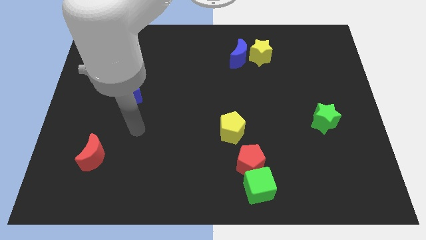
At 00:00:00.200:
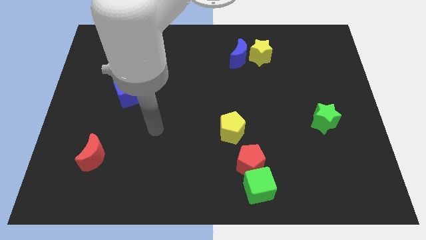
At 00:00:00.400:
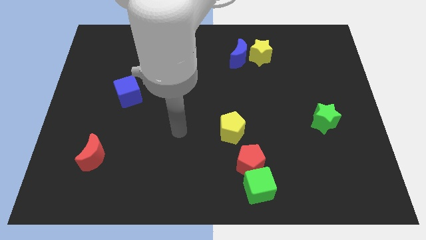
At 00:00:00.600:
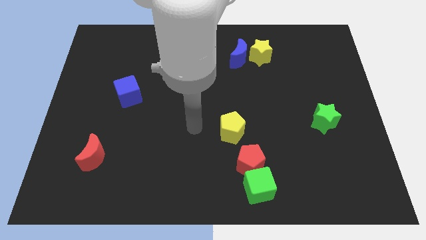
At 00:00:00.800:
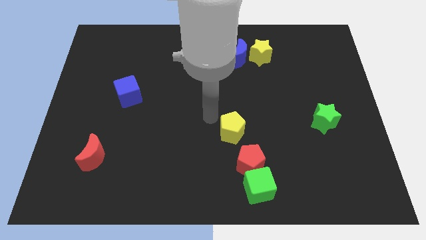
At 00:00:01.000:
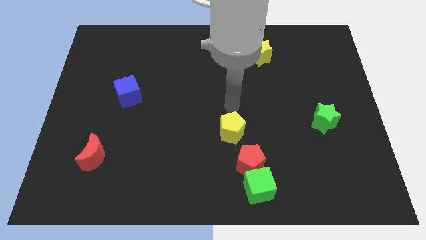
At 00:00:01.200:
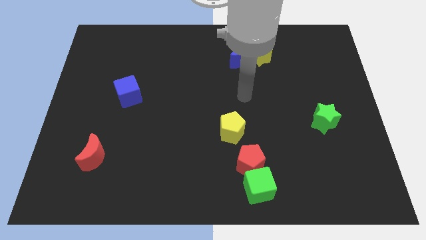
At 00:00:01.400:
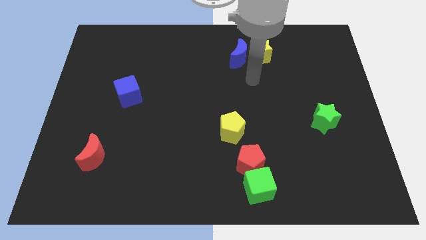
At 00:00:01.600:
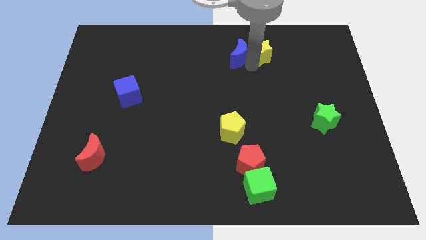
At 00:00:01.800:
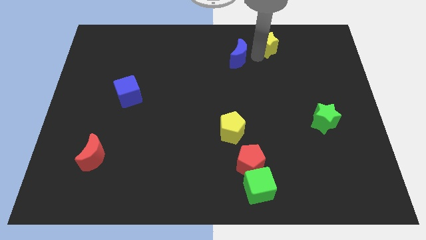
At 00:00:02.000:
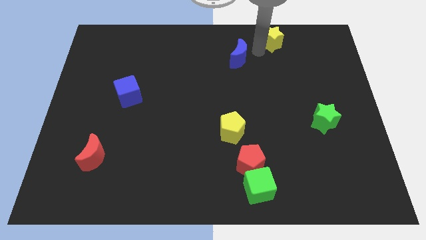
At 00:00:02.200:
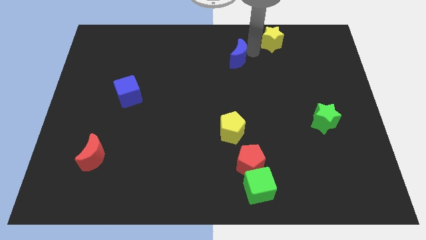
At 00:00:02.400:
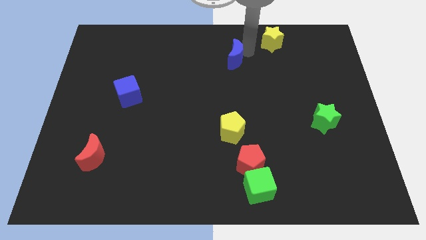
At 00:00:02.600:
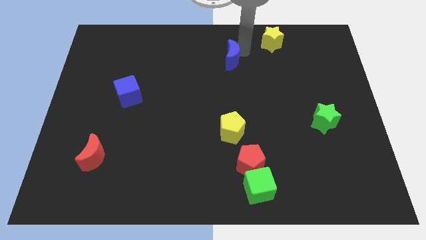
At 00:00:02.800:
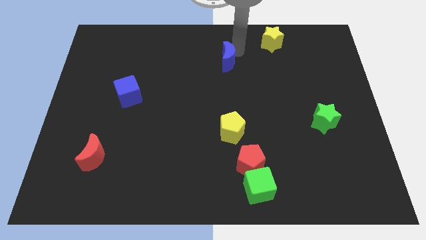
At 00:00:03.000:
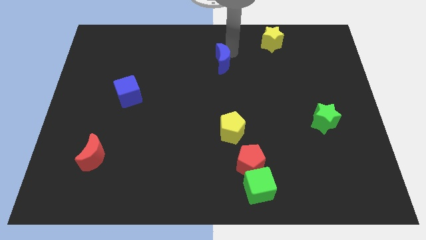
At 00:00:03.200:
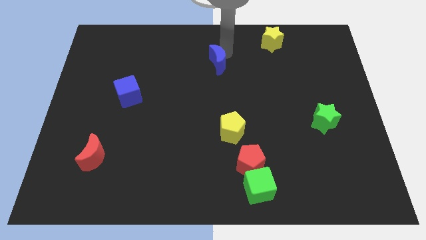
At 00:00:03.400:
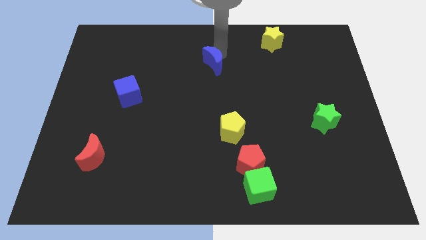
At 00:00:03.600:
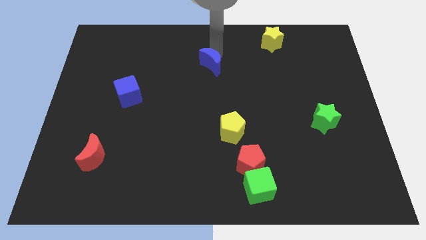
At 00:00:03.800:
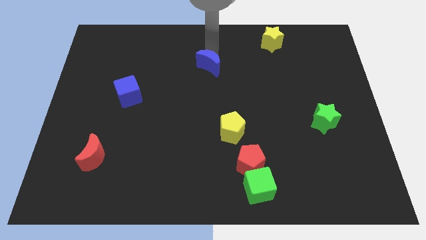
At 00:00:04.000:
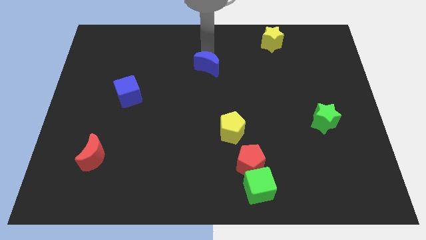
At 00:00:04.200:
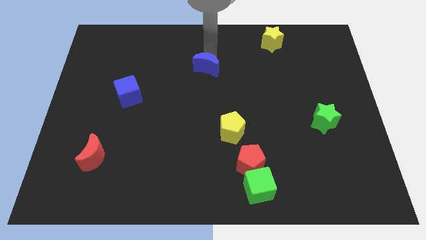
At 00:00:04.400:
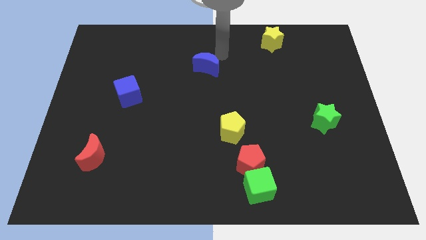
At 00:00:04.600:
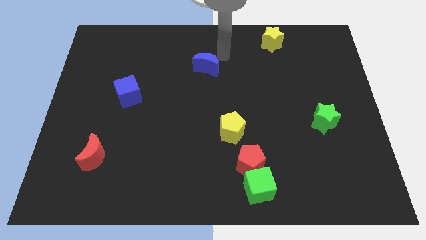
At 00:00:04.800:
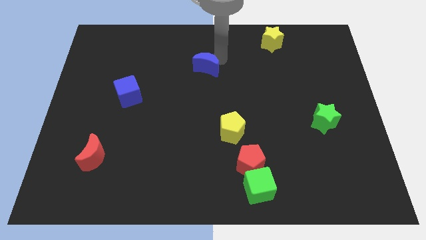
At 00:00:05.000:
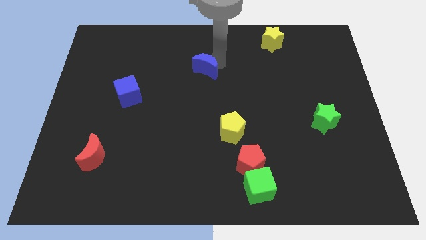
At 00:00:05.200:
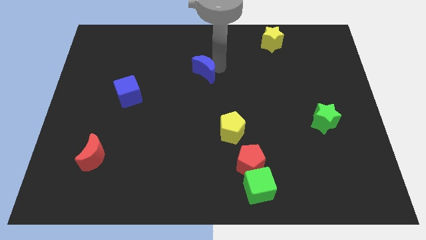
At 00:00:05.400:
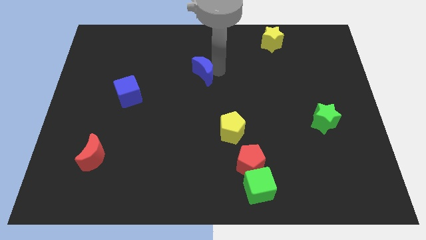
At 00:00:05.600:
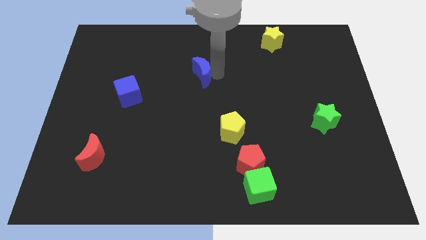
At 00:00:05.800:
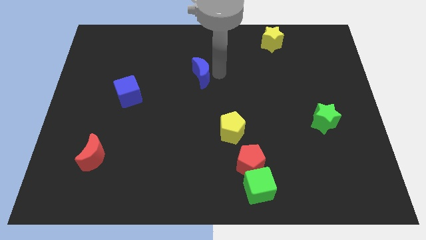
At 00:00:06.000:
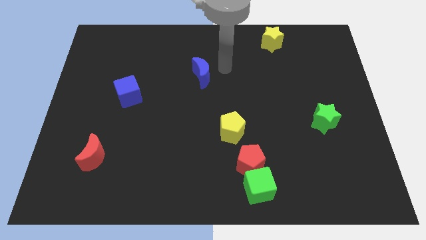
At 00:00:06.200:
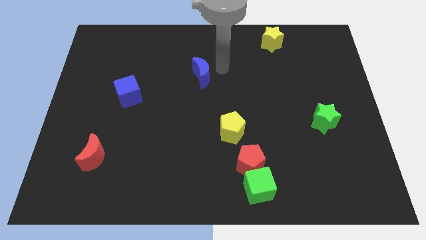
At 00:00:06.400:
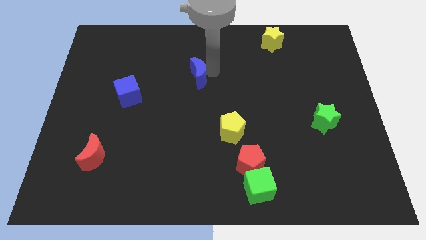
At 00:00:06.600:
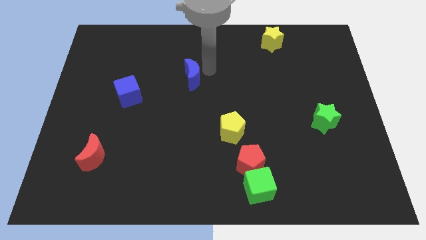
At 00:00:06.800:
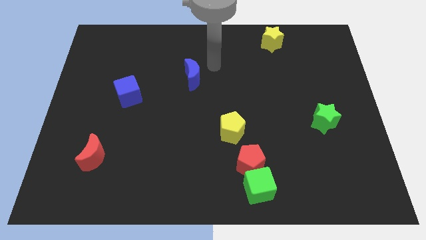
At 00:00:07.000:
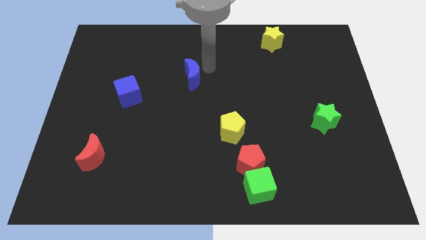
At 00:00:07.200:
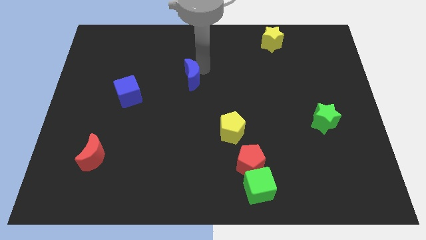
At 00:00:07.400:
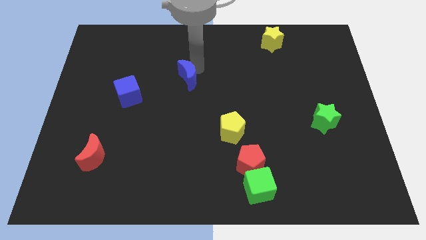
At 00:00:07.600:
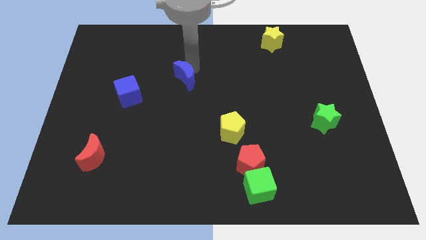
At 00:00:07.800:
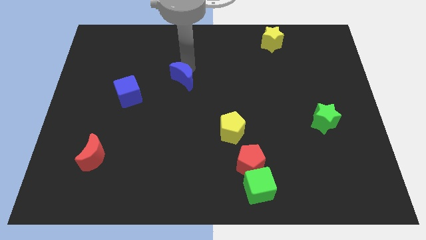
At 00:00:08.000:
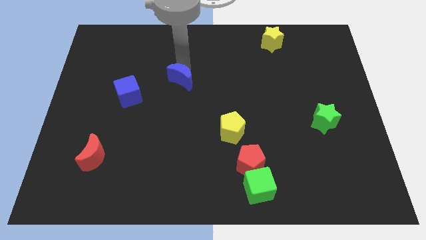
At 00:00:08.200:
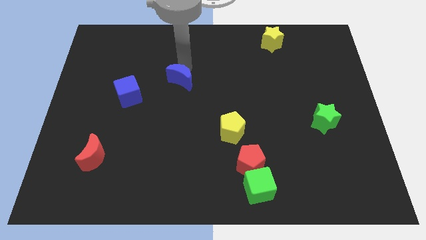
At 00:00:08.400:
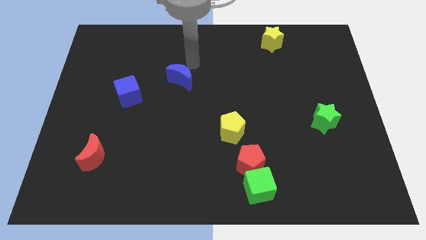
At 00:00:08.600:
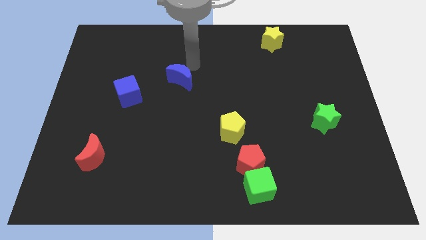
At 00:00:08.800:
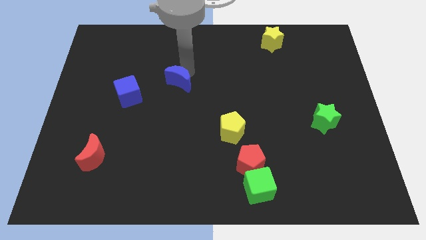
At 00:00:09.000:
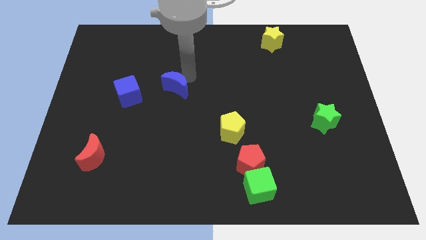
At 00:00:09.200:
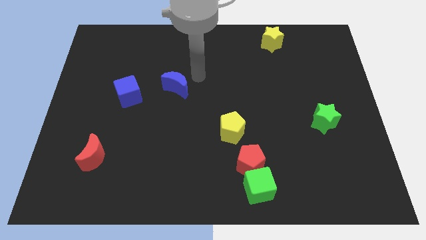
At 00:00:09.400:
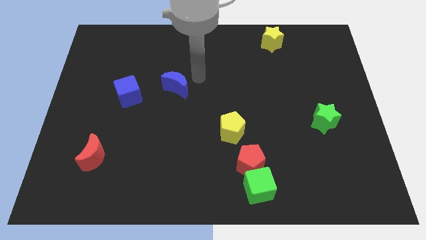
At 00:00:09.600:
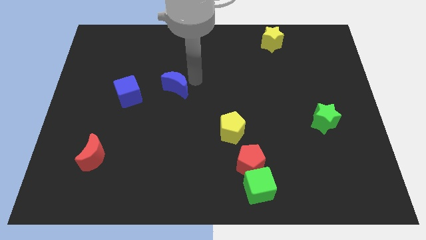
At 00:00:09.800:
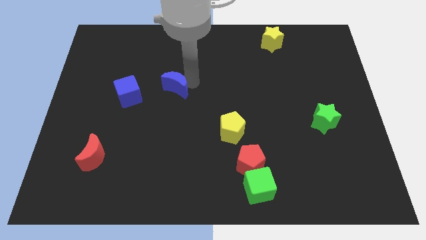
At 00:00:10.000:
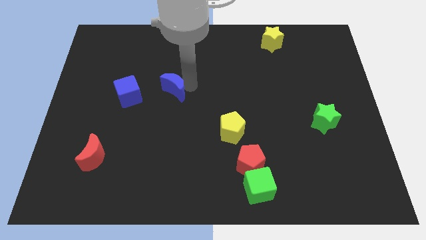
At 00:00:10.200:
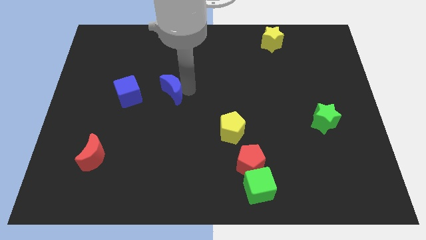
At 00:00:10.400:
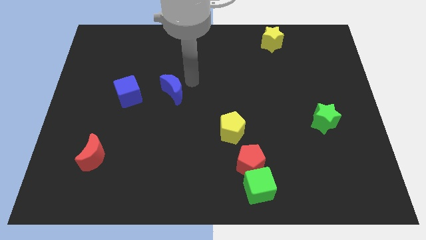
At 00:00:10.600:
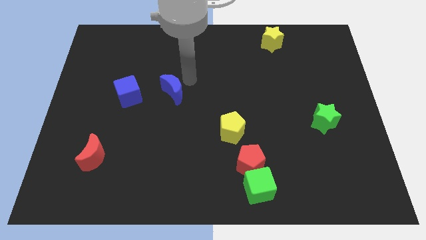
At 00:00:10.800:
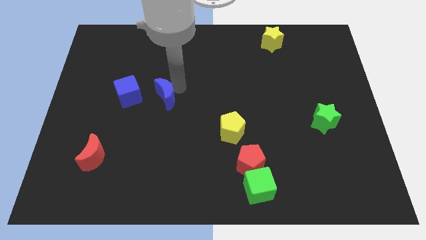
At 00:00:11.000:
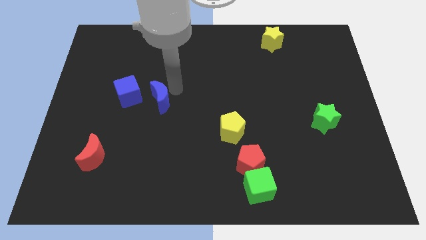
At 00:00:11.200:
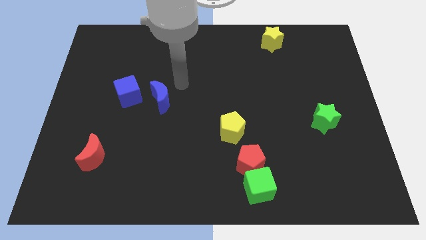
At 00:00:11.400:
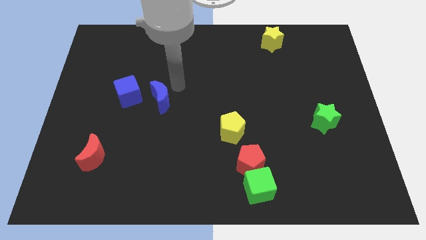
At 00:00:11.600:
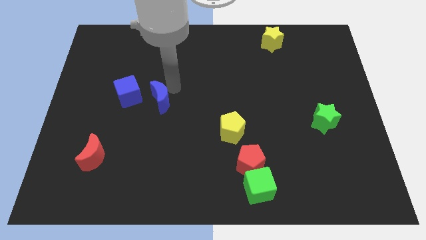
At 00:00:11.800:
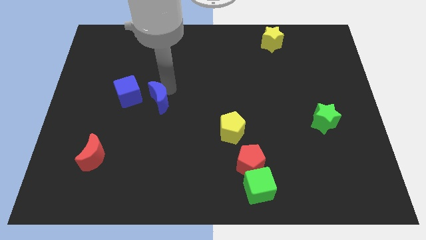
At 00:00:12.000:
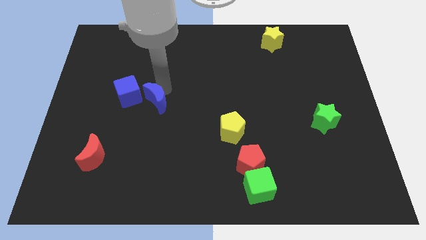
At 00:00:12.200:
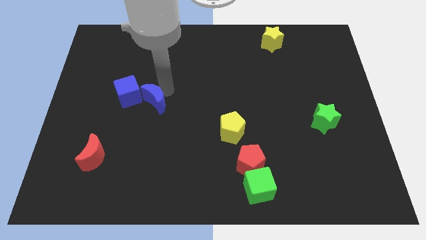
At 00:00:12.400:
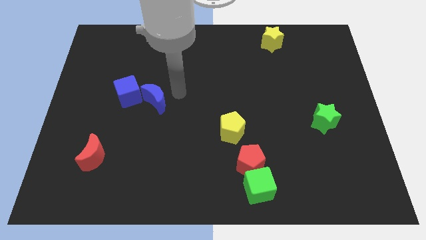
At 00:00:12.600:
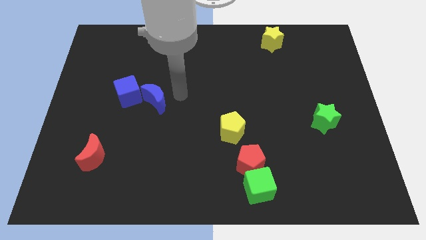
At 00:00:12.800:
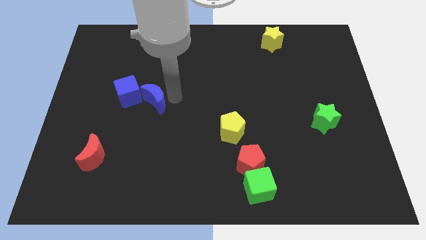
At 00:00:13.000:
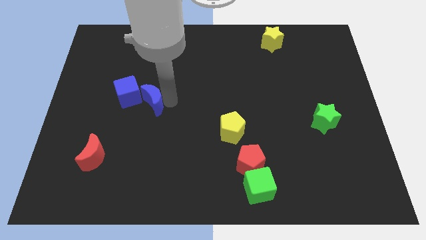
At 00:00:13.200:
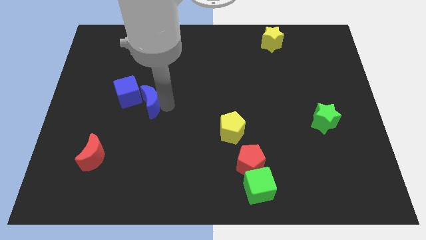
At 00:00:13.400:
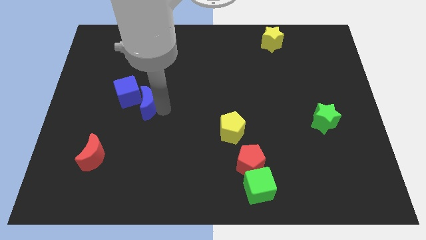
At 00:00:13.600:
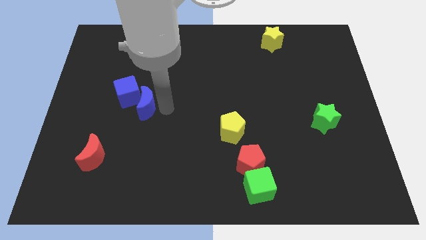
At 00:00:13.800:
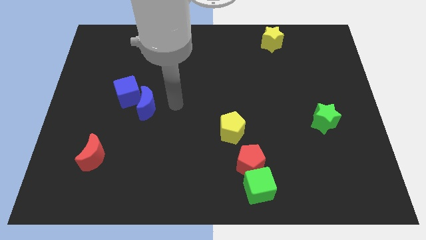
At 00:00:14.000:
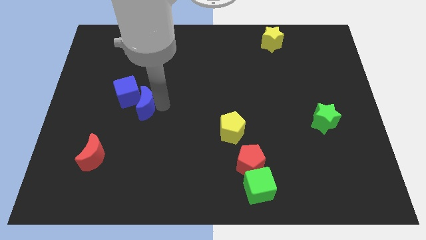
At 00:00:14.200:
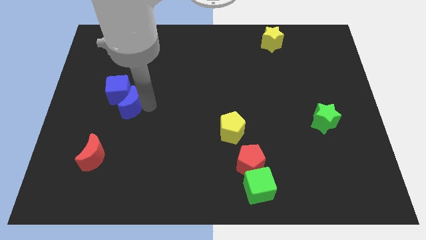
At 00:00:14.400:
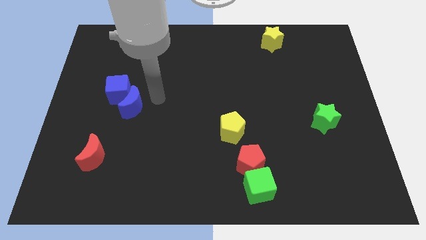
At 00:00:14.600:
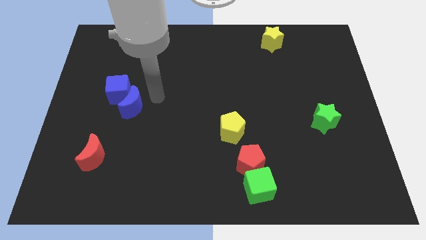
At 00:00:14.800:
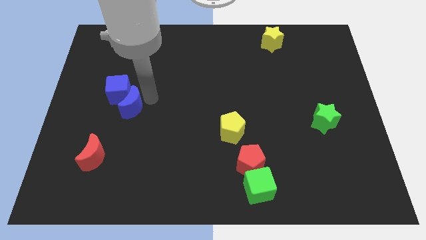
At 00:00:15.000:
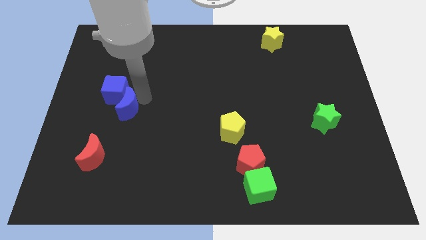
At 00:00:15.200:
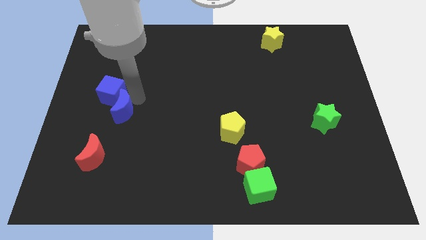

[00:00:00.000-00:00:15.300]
move the blue moon above the red moon
